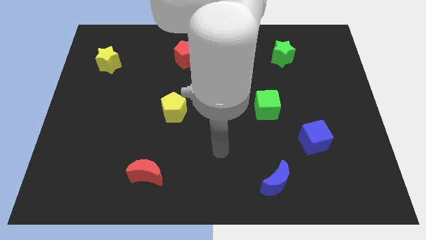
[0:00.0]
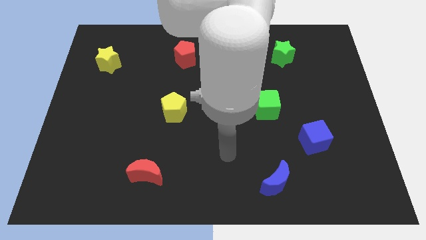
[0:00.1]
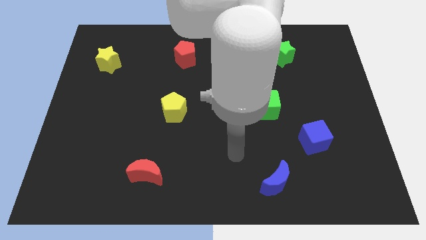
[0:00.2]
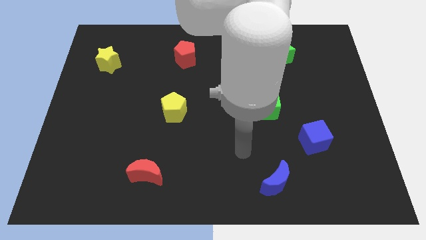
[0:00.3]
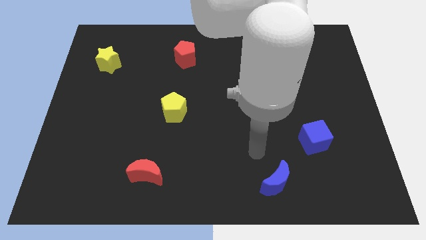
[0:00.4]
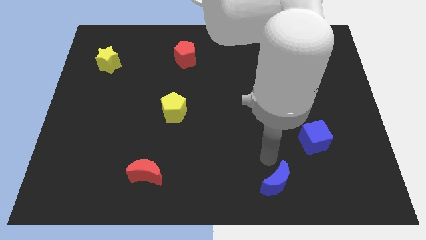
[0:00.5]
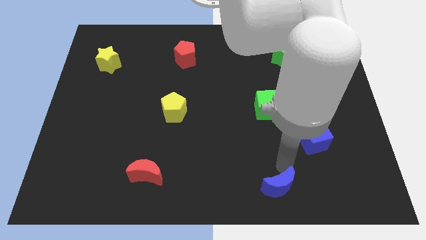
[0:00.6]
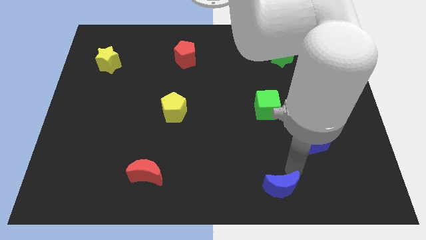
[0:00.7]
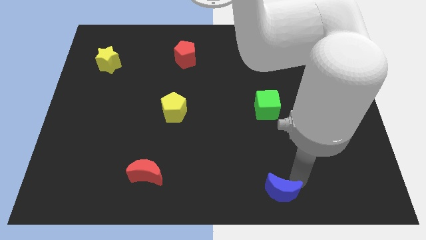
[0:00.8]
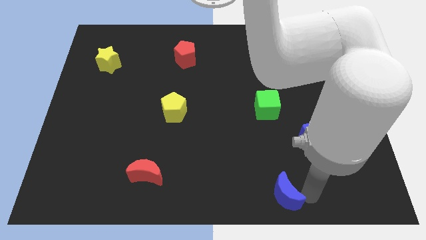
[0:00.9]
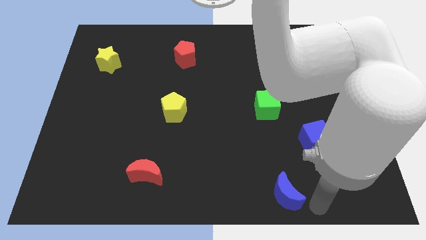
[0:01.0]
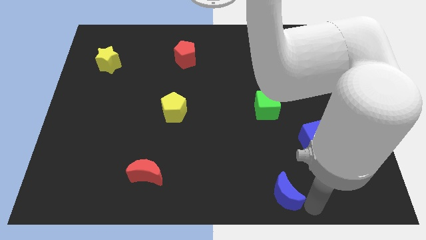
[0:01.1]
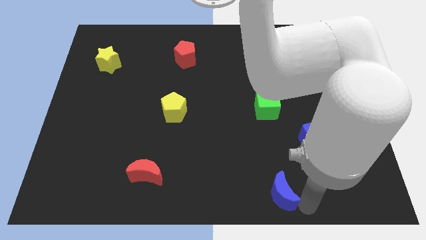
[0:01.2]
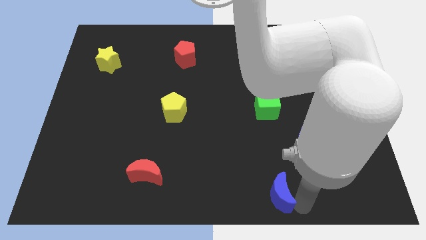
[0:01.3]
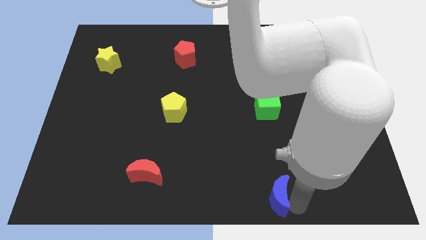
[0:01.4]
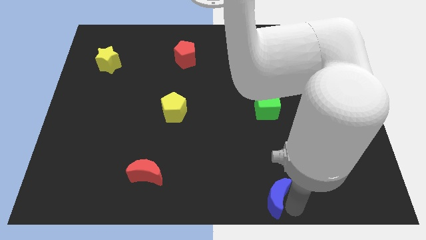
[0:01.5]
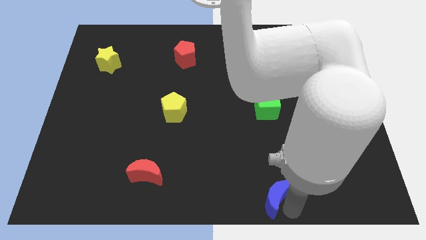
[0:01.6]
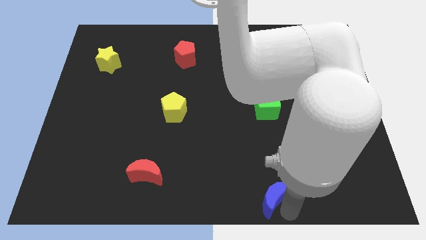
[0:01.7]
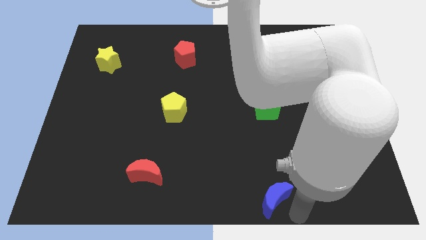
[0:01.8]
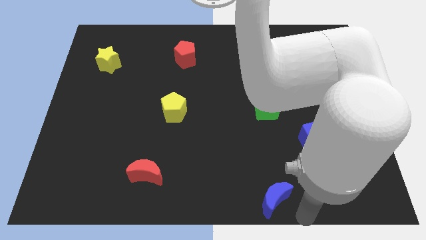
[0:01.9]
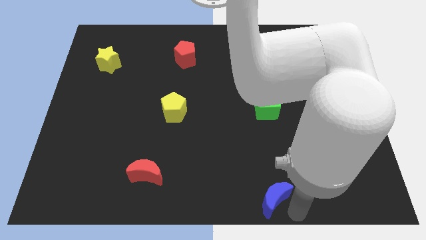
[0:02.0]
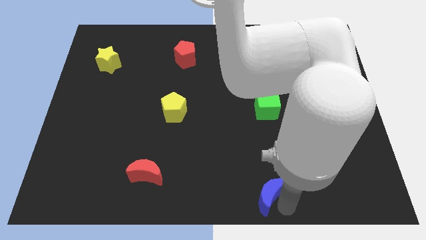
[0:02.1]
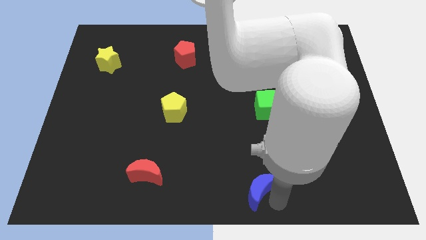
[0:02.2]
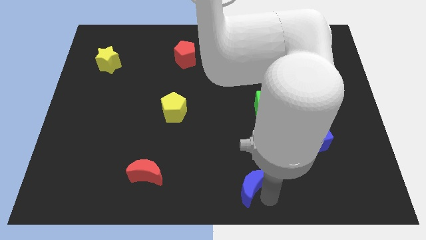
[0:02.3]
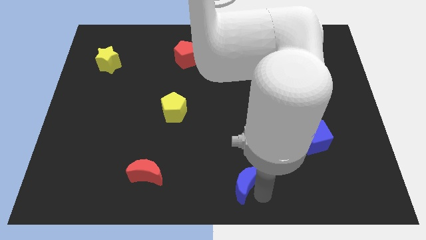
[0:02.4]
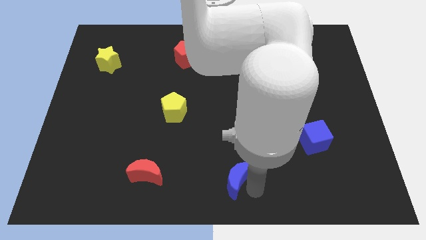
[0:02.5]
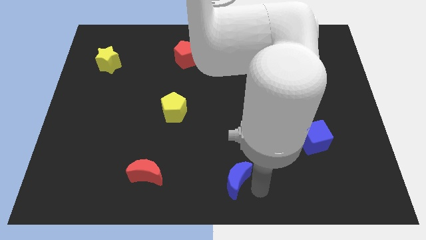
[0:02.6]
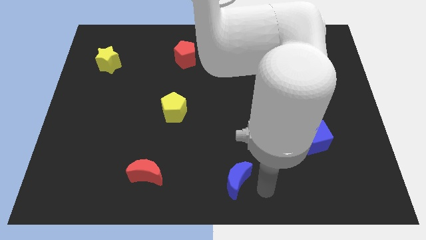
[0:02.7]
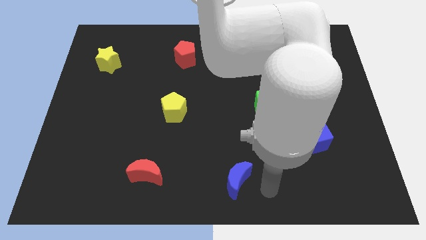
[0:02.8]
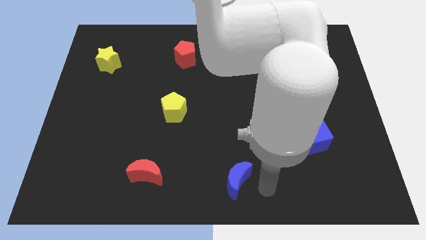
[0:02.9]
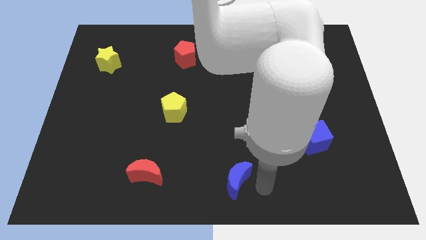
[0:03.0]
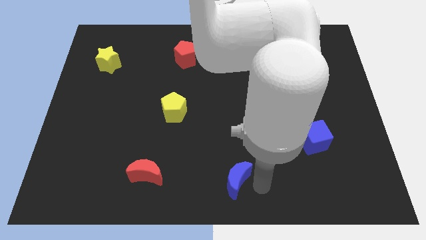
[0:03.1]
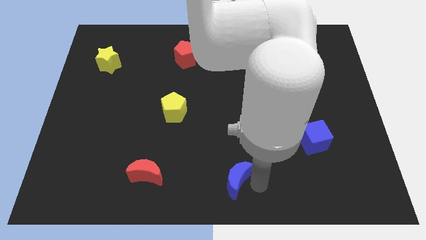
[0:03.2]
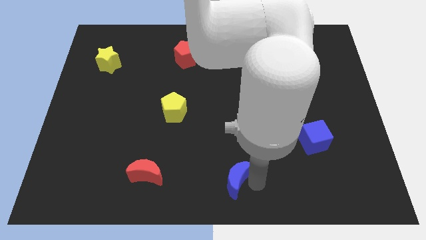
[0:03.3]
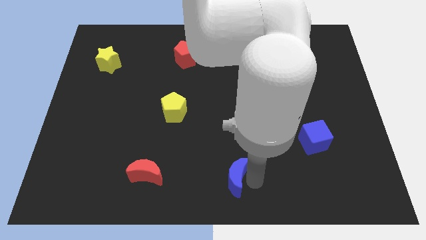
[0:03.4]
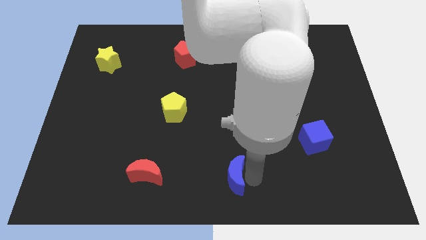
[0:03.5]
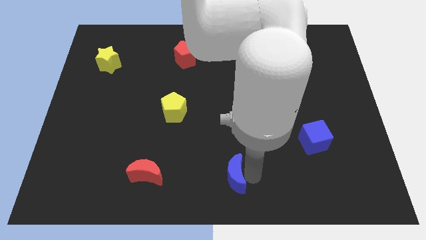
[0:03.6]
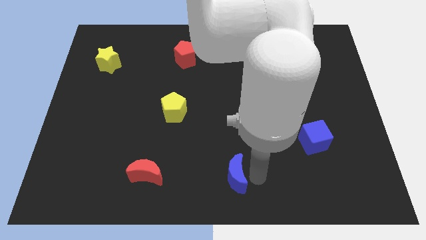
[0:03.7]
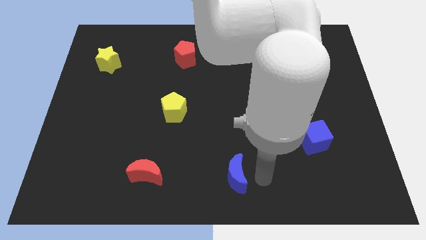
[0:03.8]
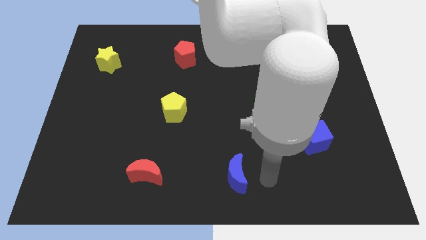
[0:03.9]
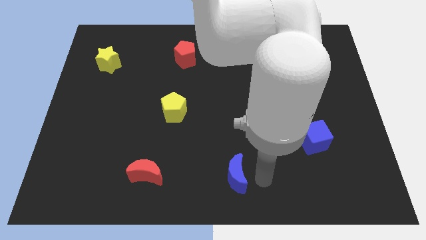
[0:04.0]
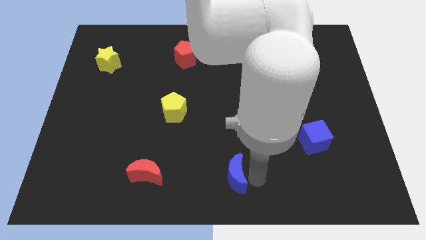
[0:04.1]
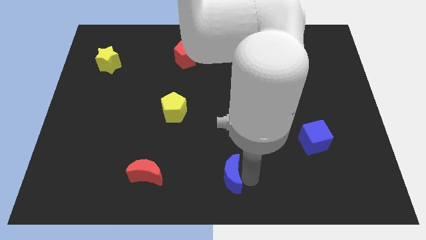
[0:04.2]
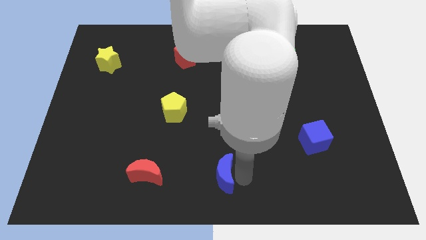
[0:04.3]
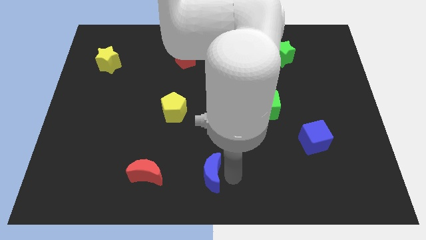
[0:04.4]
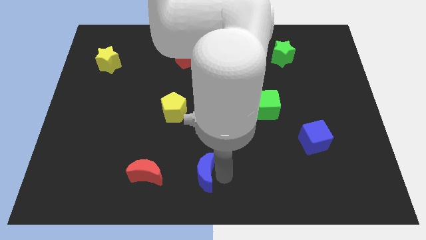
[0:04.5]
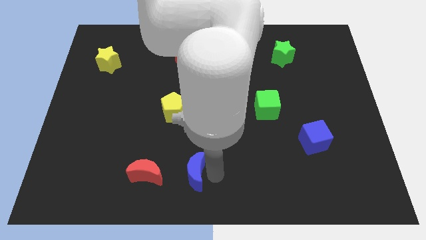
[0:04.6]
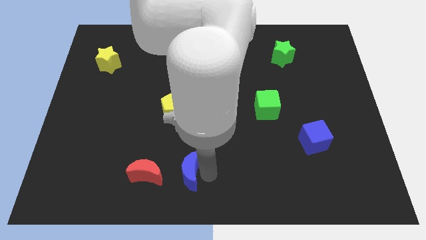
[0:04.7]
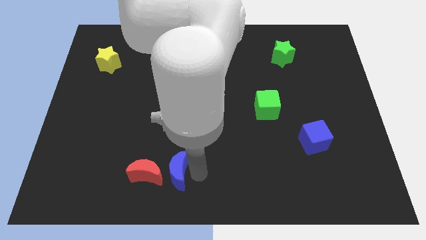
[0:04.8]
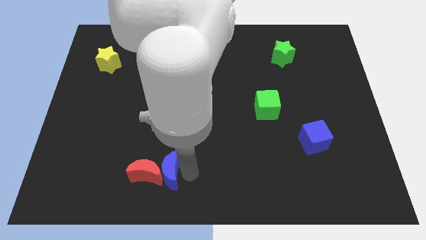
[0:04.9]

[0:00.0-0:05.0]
slide the blue moon to the red moon

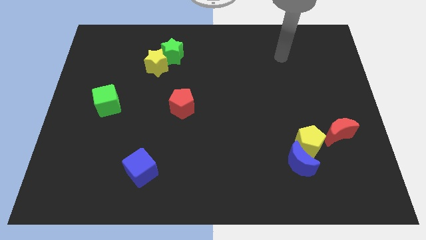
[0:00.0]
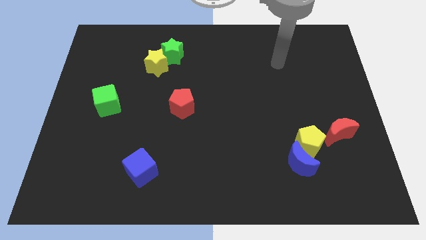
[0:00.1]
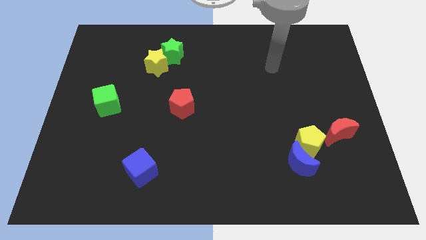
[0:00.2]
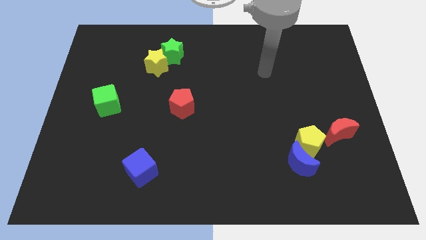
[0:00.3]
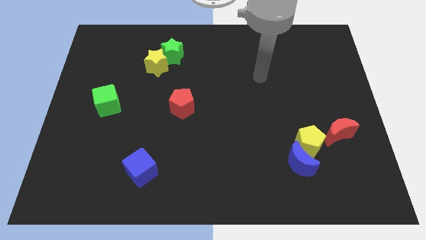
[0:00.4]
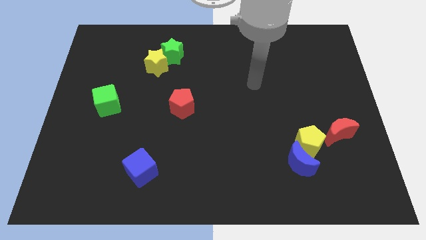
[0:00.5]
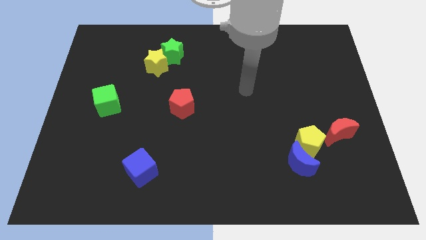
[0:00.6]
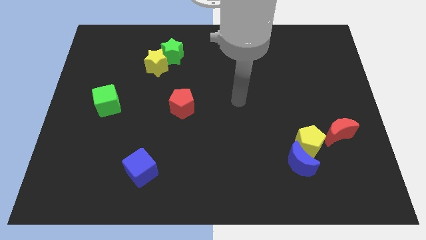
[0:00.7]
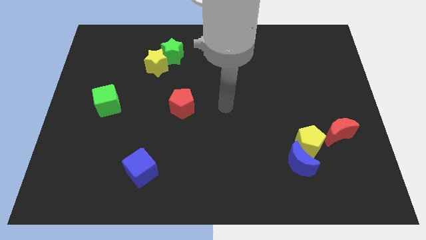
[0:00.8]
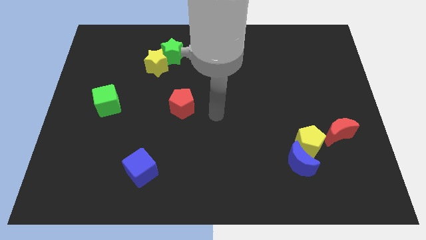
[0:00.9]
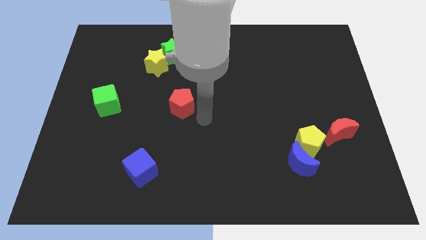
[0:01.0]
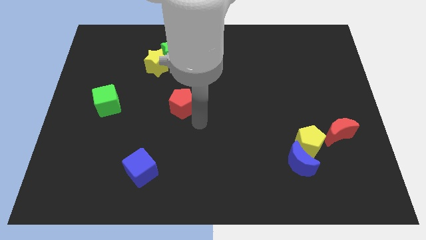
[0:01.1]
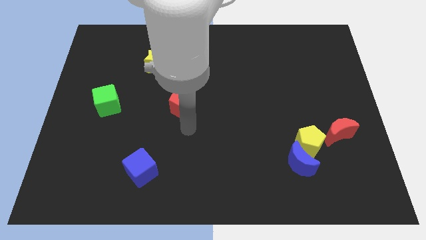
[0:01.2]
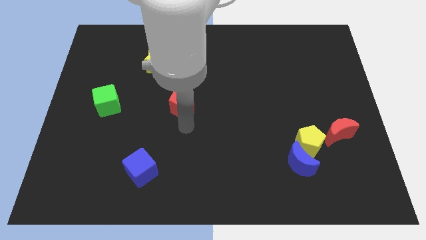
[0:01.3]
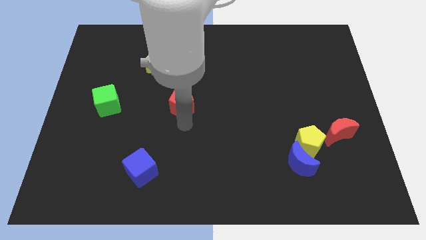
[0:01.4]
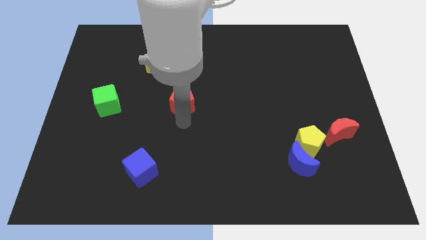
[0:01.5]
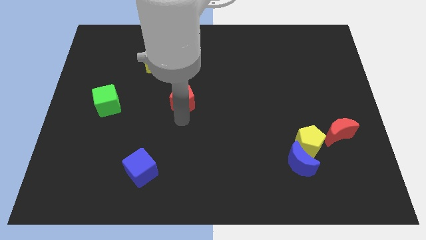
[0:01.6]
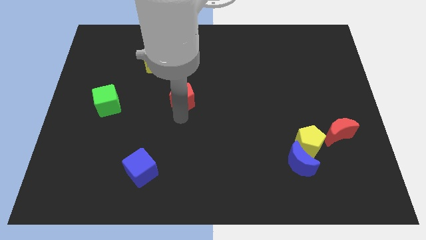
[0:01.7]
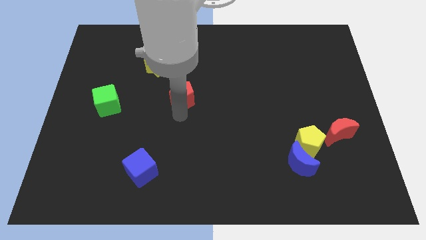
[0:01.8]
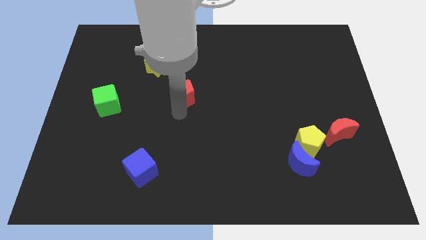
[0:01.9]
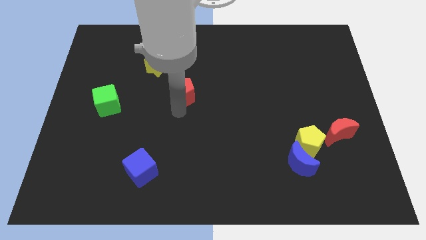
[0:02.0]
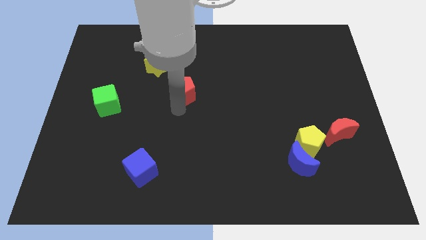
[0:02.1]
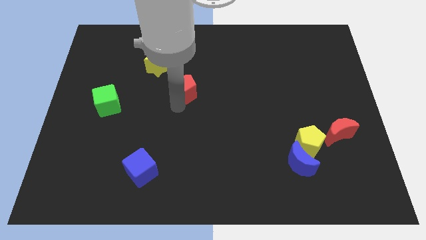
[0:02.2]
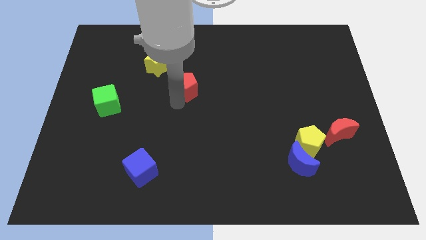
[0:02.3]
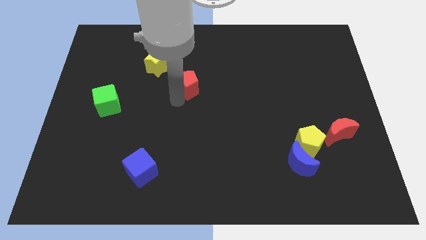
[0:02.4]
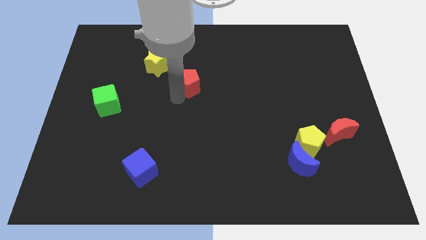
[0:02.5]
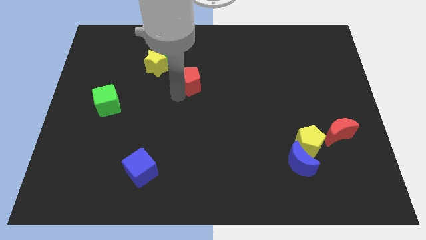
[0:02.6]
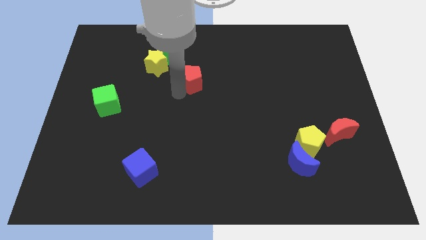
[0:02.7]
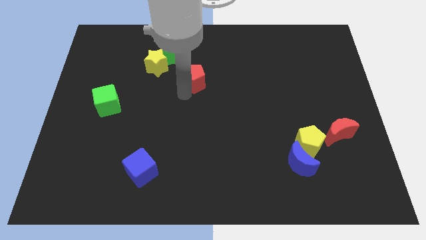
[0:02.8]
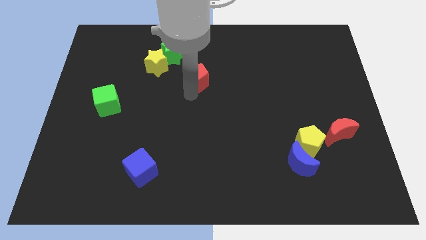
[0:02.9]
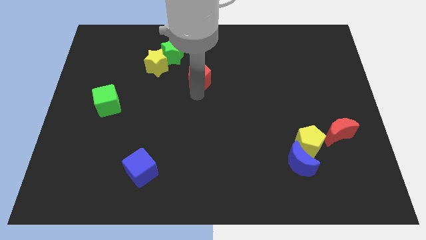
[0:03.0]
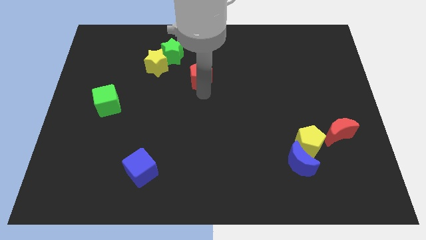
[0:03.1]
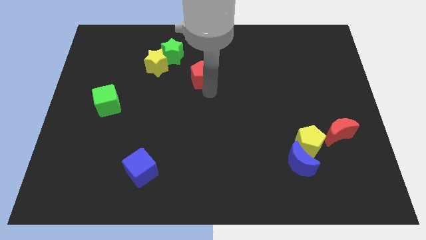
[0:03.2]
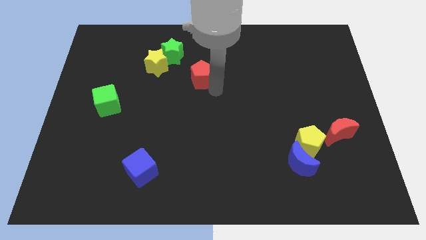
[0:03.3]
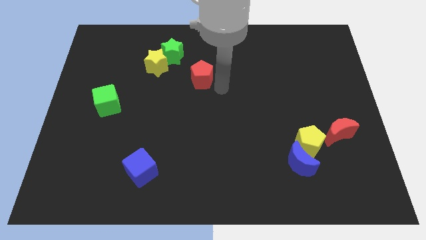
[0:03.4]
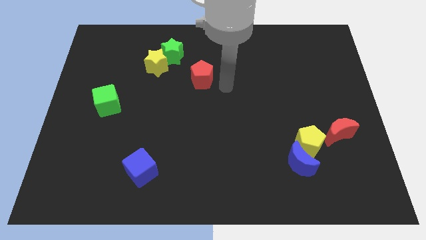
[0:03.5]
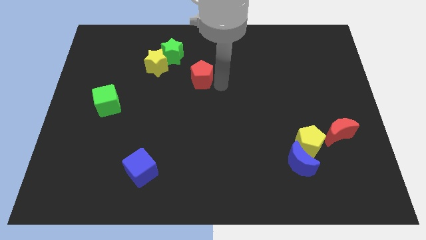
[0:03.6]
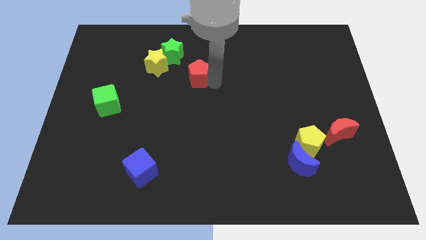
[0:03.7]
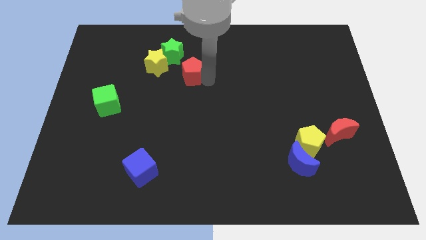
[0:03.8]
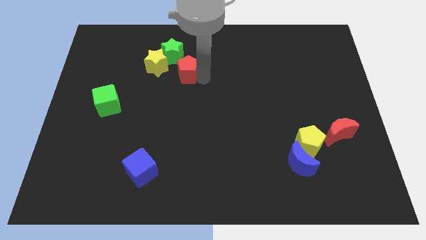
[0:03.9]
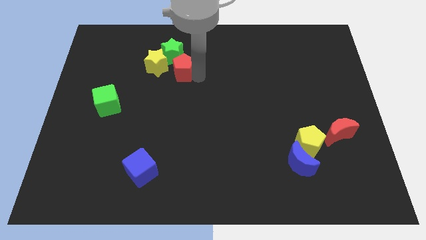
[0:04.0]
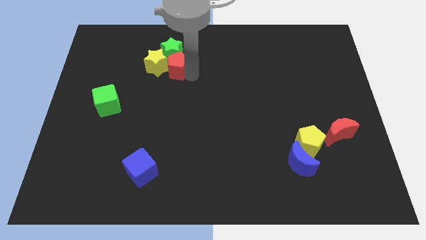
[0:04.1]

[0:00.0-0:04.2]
put the red pentagon next to the green star
